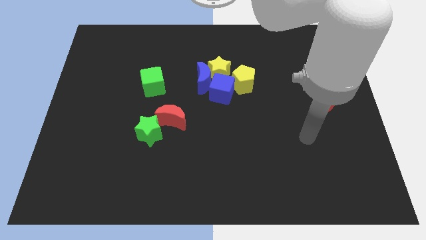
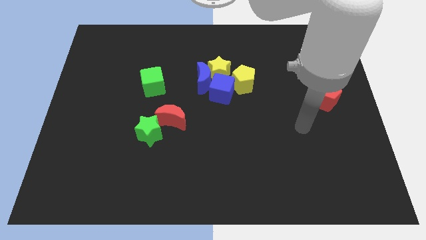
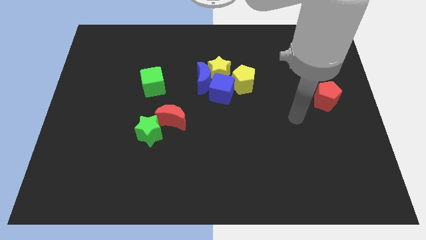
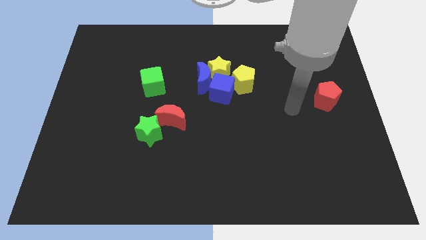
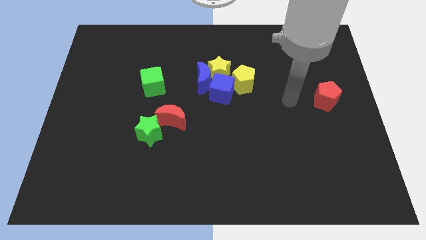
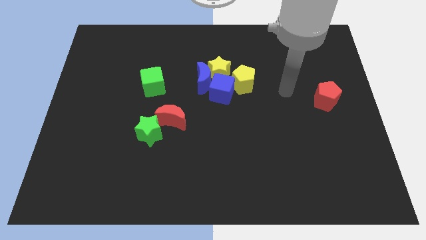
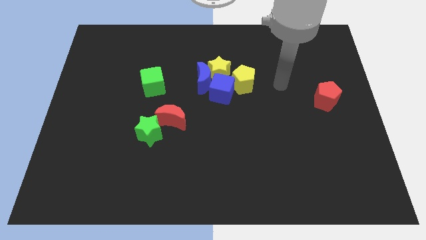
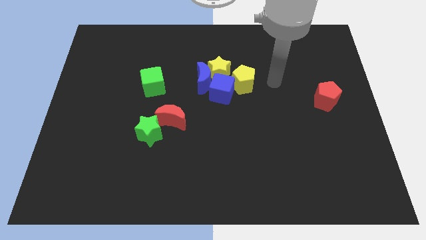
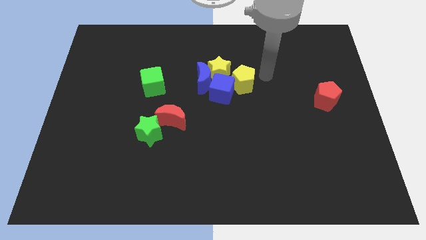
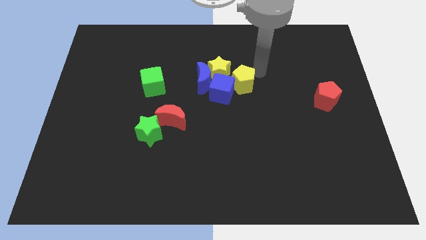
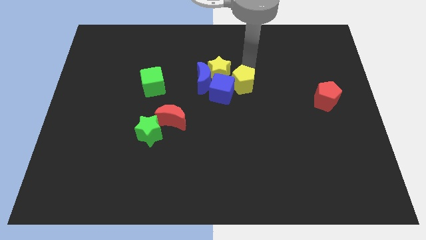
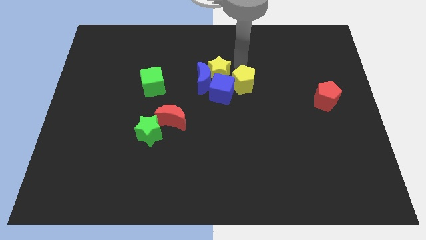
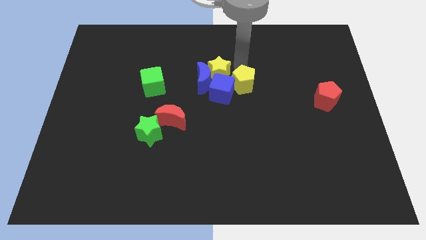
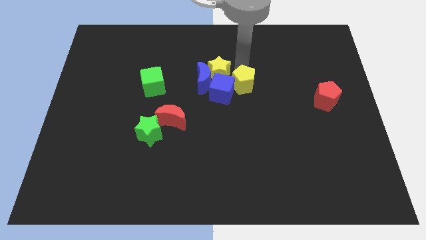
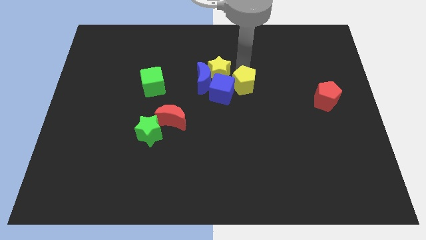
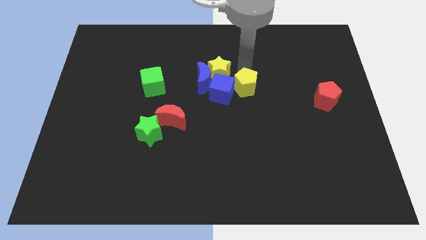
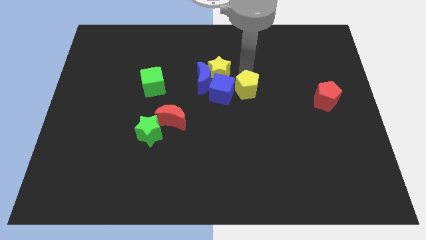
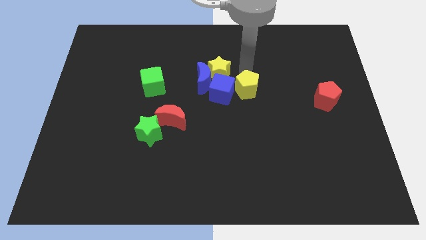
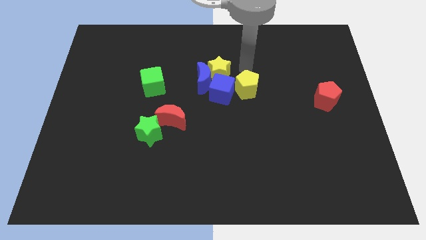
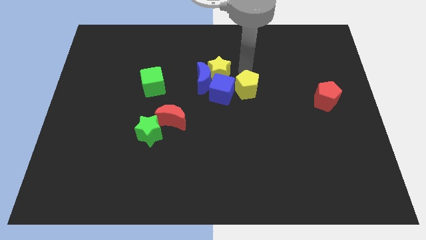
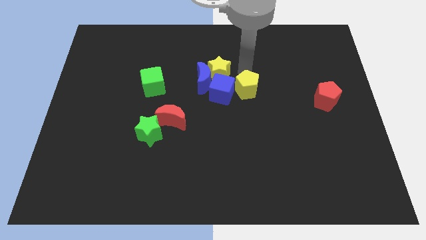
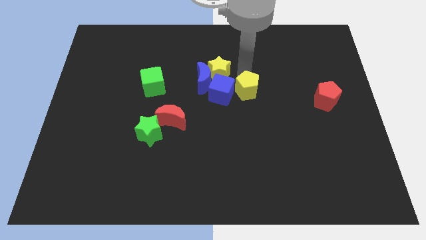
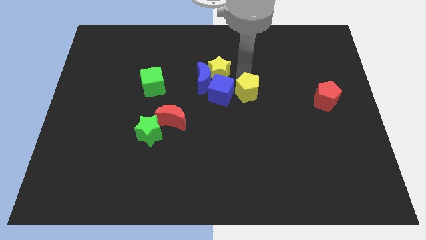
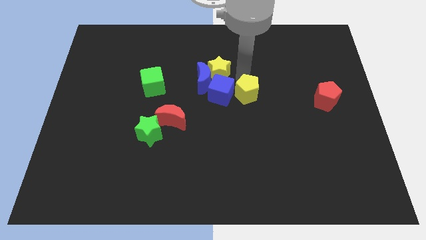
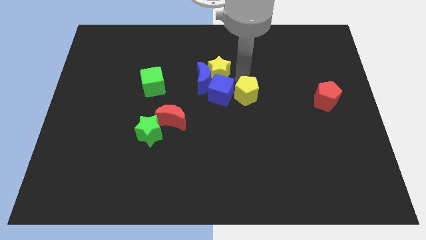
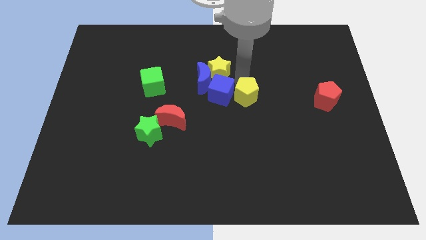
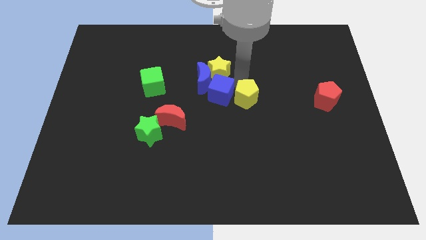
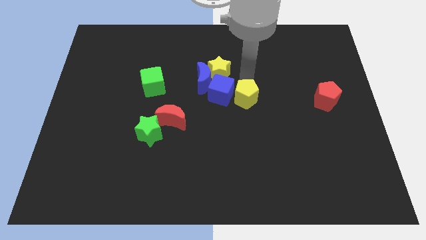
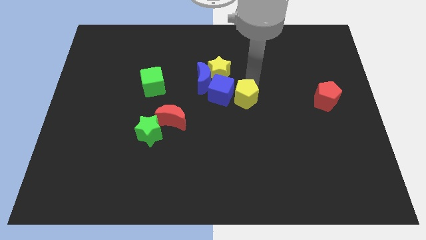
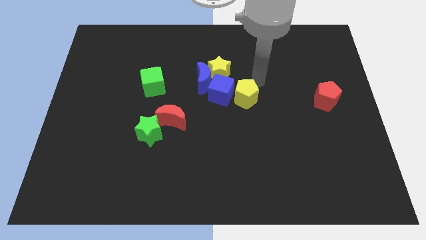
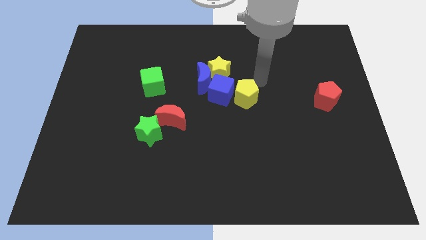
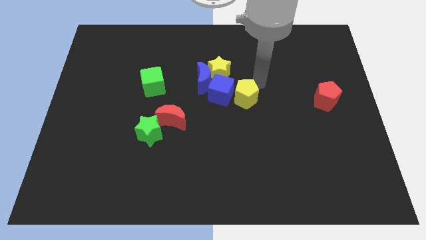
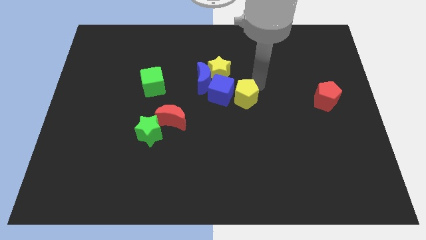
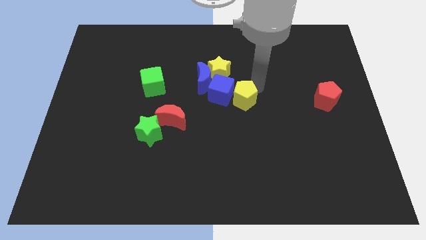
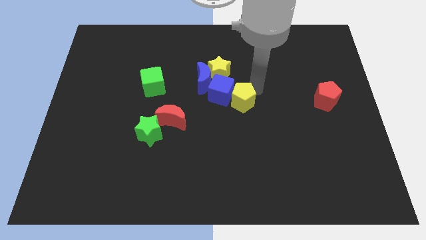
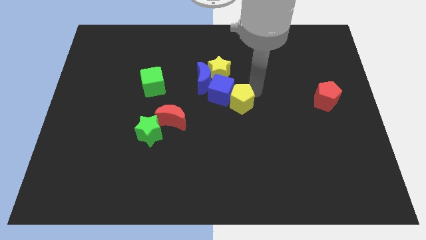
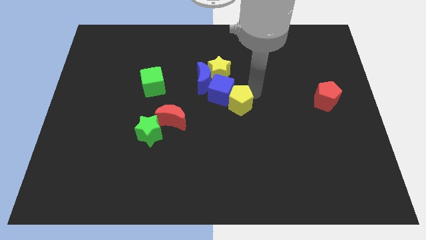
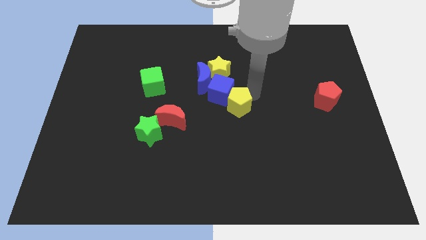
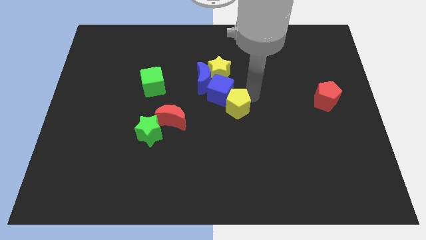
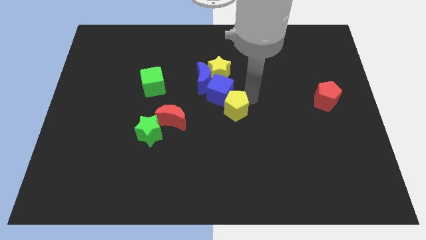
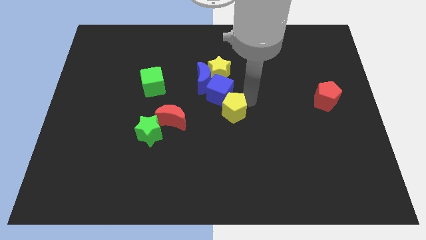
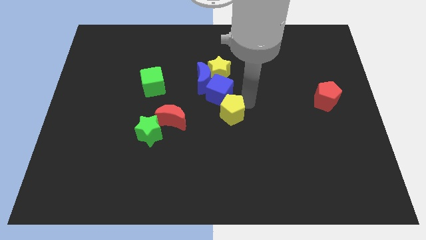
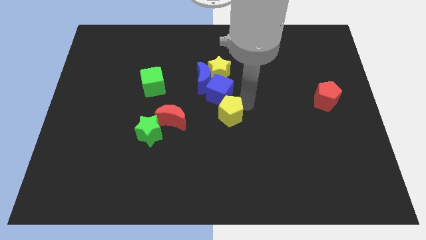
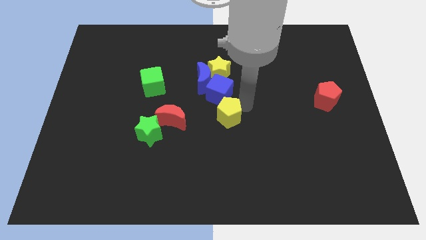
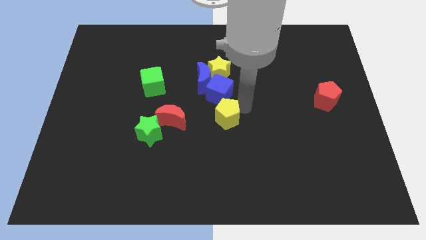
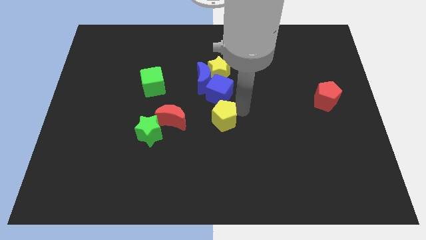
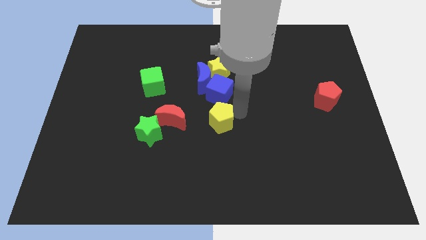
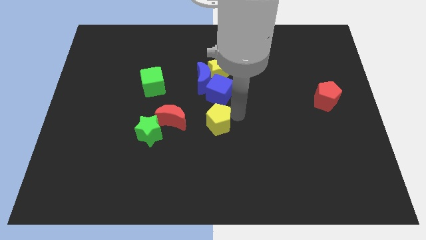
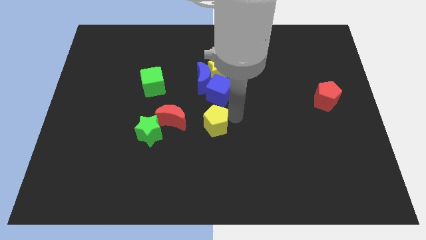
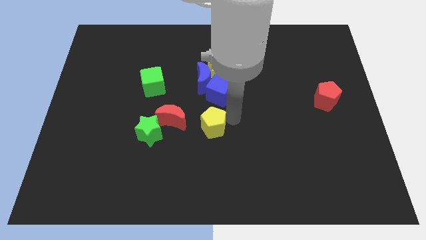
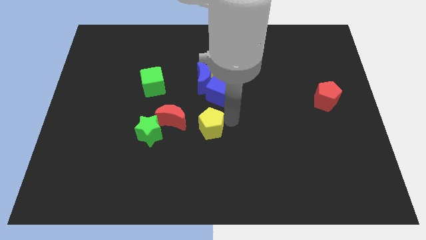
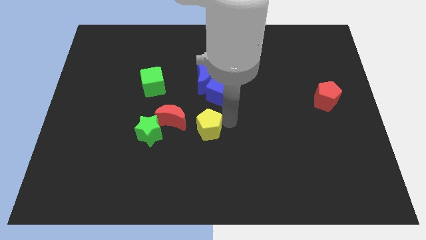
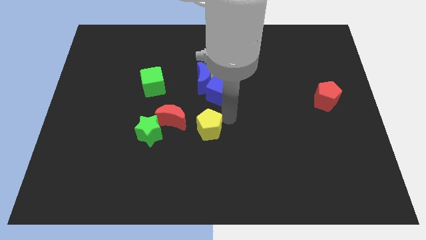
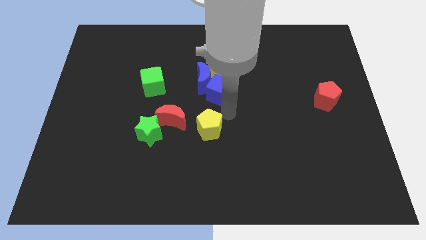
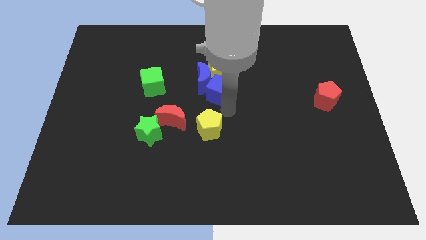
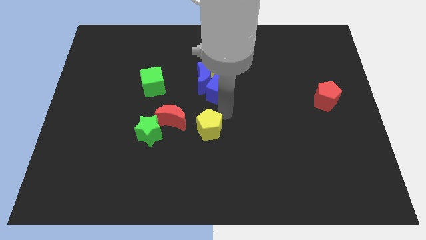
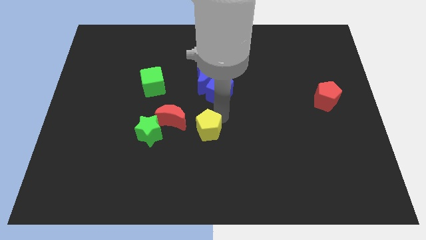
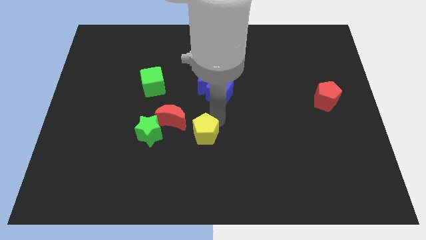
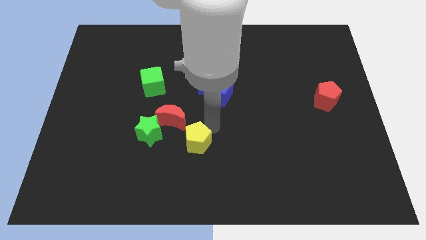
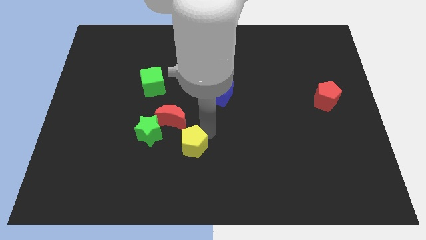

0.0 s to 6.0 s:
push the yellow pentagon downwards and to the left diagonally

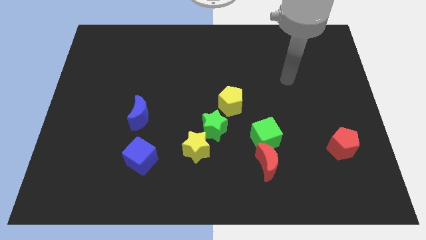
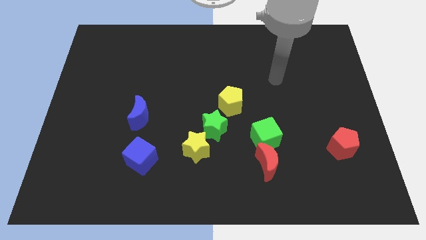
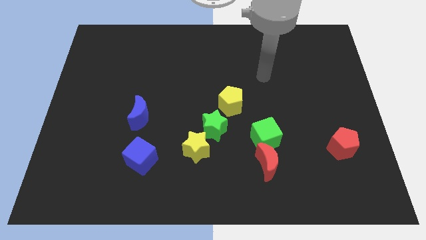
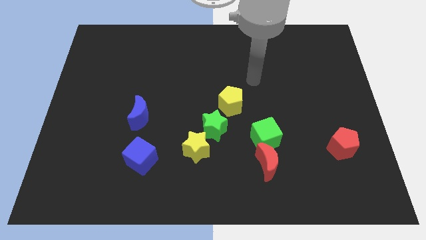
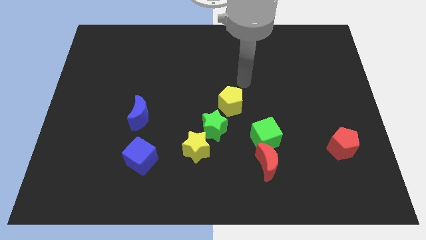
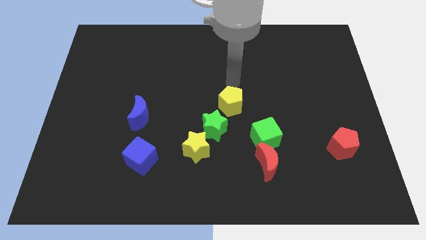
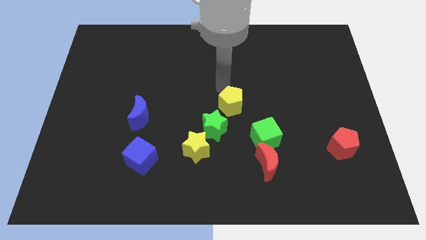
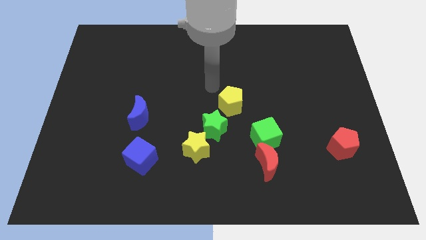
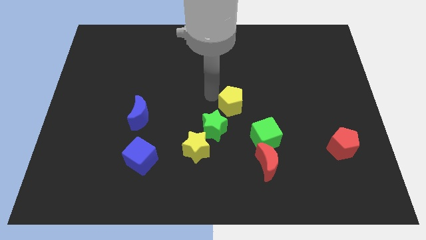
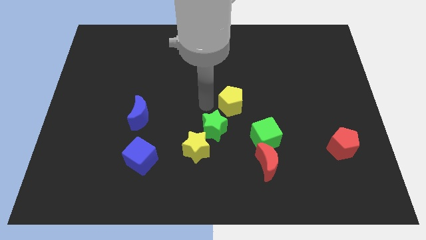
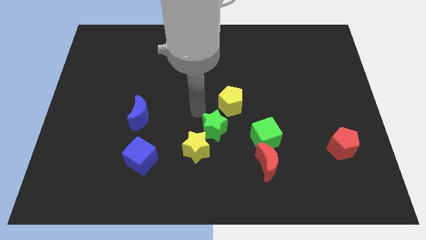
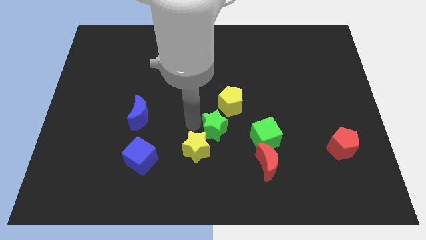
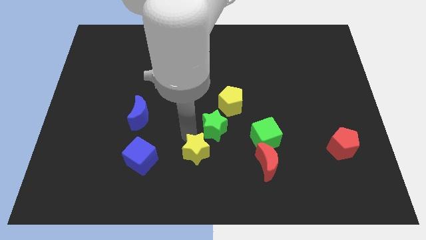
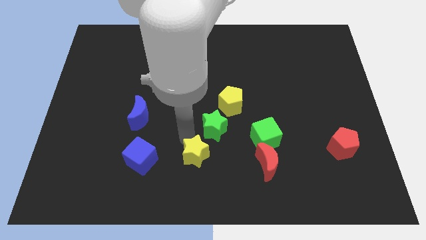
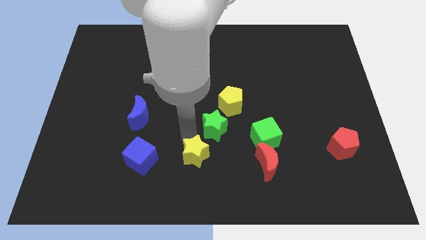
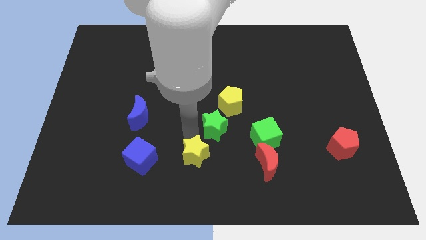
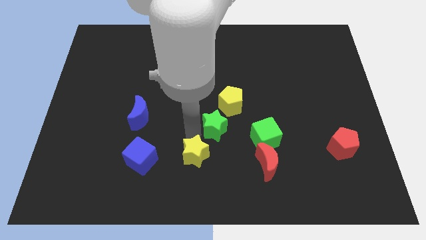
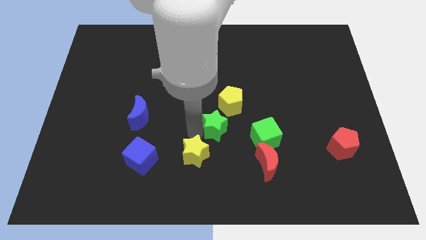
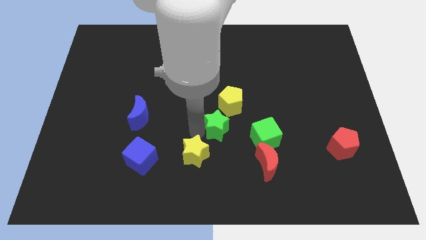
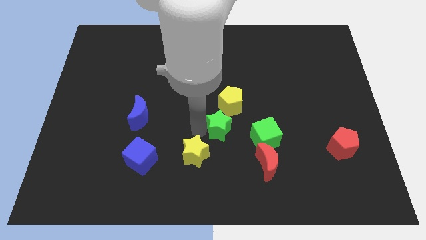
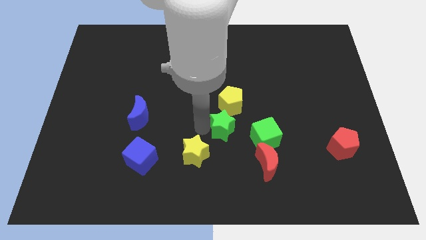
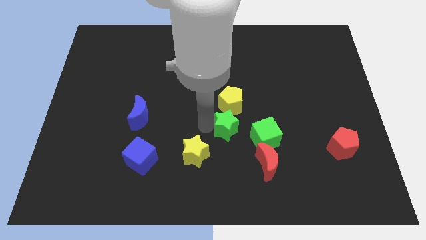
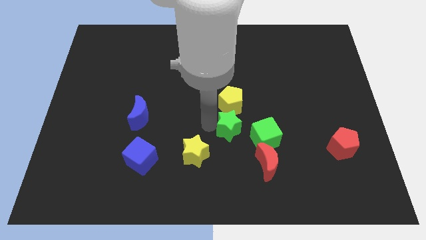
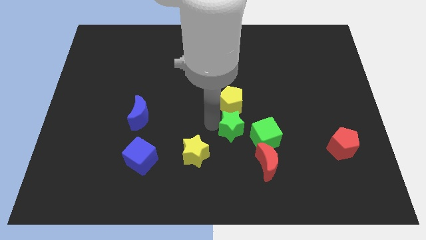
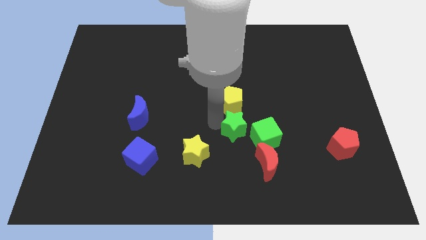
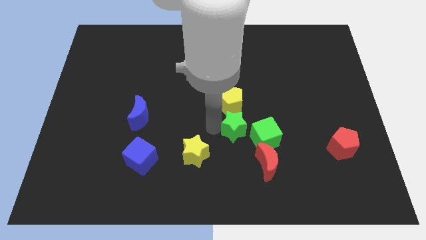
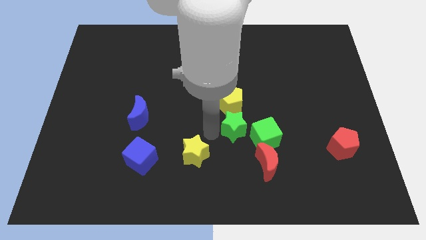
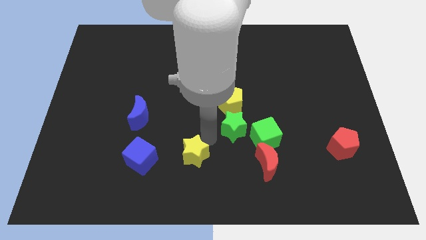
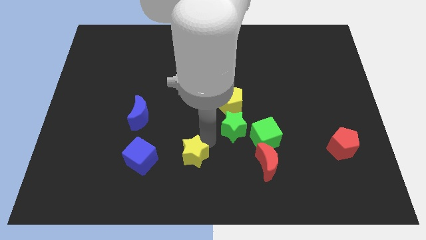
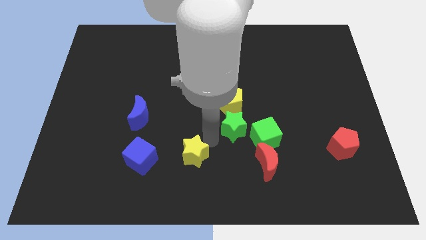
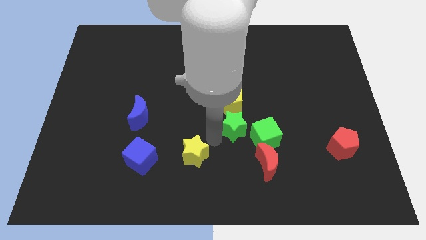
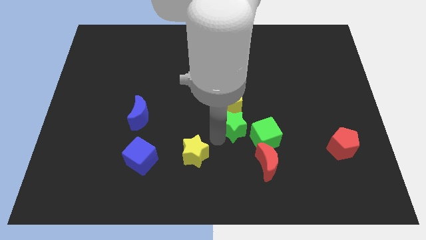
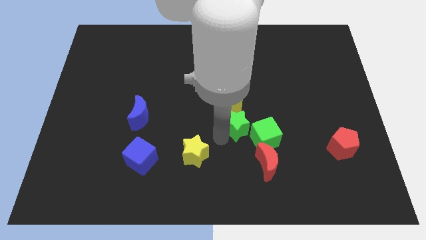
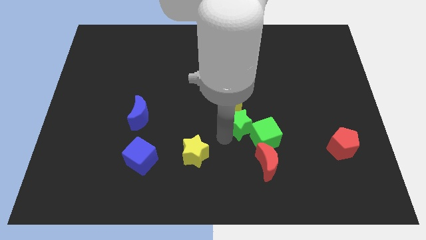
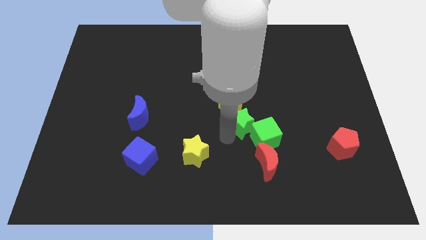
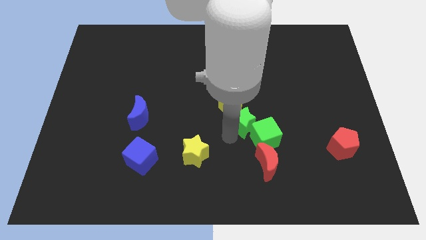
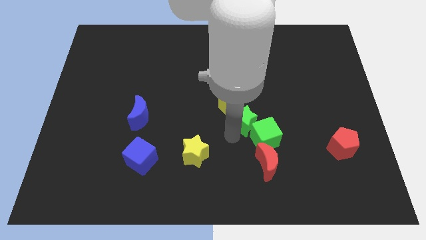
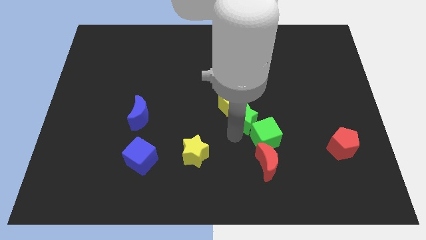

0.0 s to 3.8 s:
push the green star right a little
